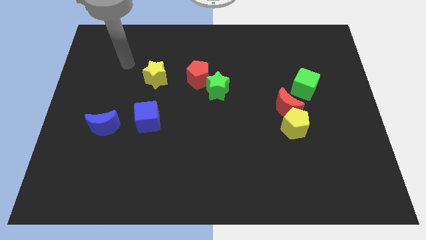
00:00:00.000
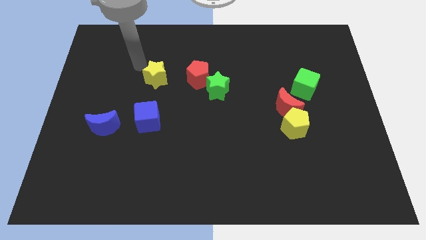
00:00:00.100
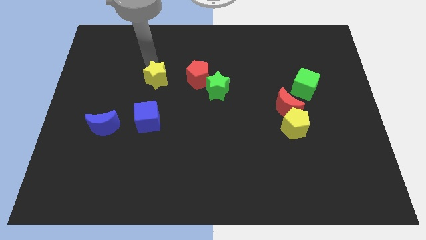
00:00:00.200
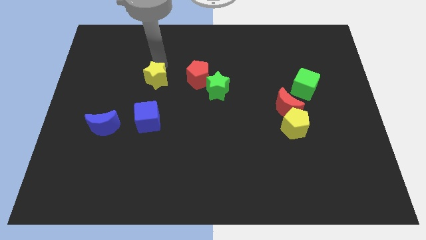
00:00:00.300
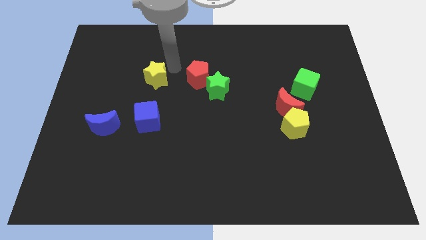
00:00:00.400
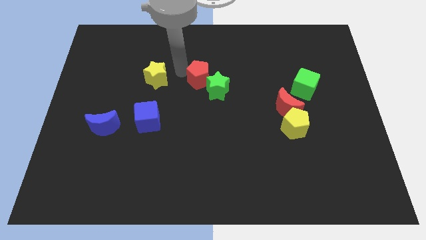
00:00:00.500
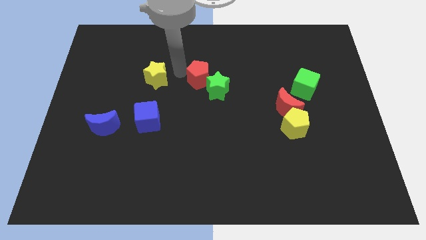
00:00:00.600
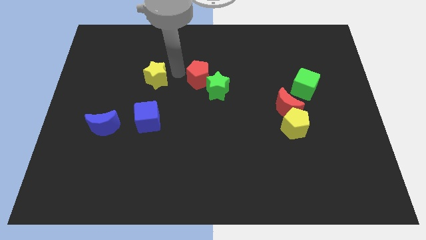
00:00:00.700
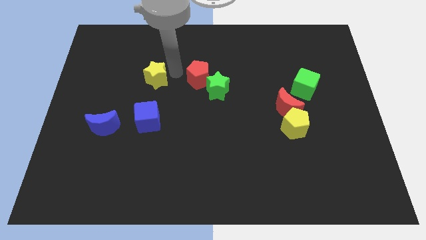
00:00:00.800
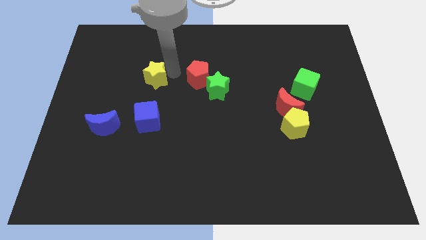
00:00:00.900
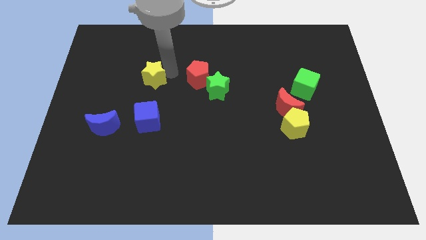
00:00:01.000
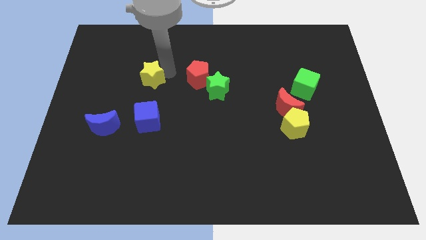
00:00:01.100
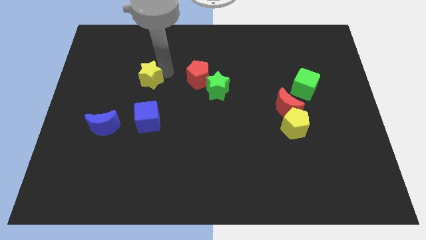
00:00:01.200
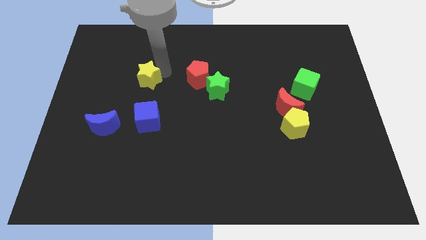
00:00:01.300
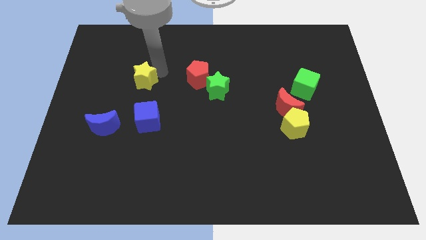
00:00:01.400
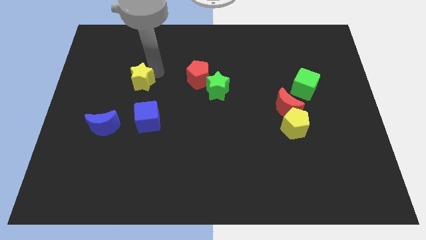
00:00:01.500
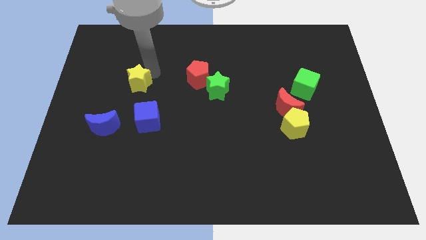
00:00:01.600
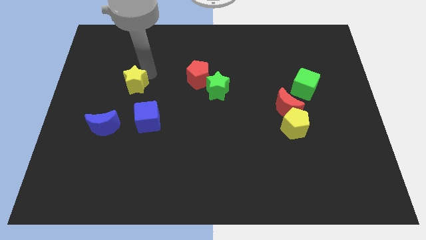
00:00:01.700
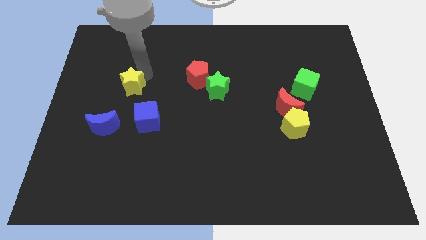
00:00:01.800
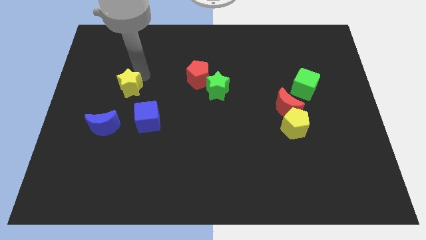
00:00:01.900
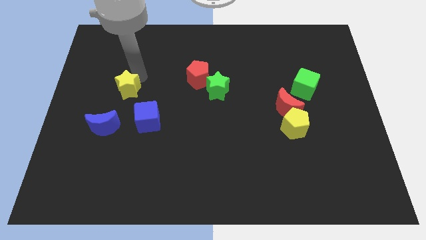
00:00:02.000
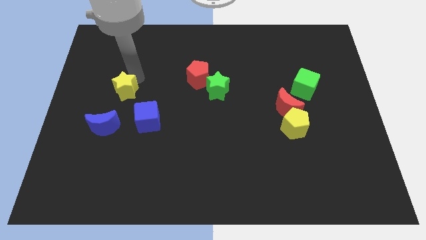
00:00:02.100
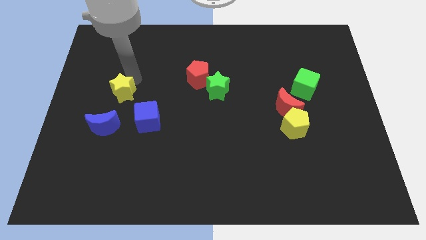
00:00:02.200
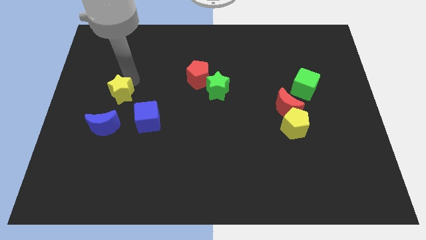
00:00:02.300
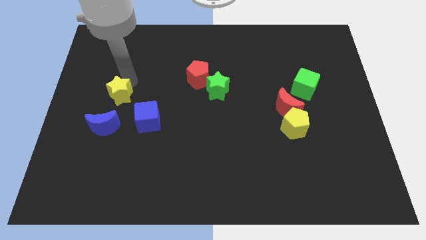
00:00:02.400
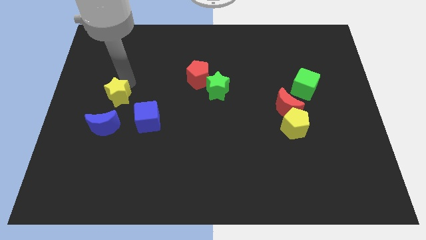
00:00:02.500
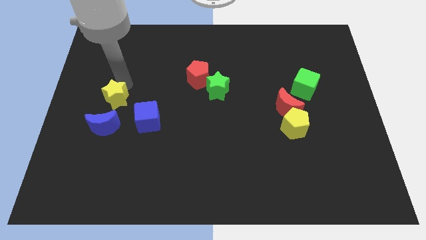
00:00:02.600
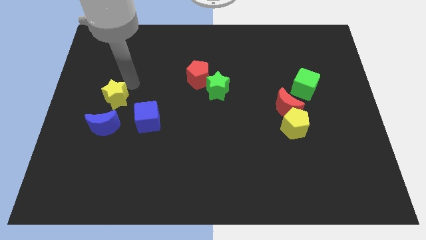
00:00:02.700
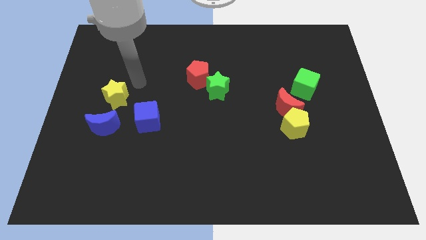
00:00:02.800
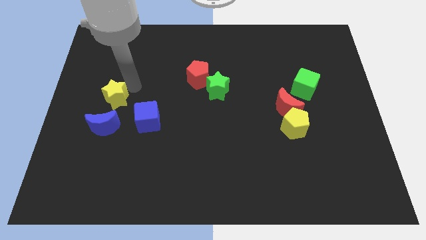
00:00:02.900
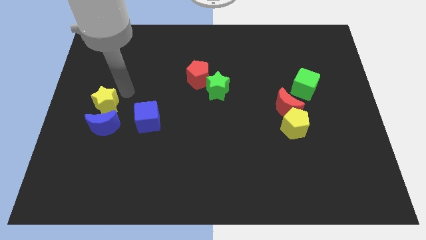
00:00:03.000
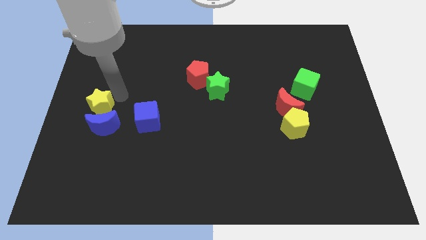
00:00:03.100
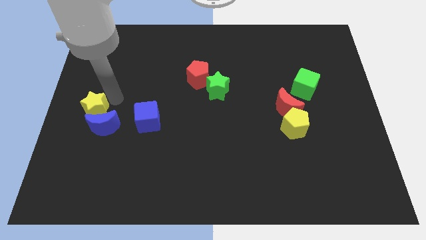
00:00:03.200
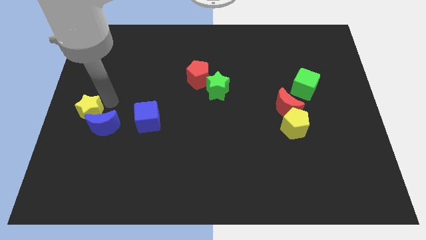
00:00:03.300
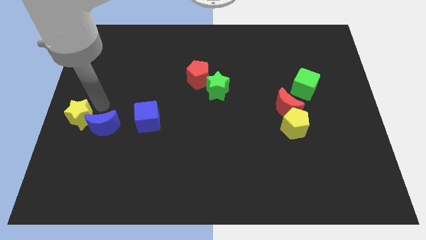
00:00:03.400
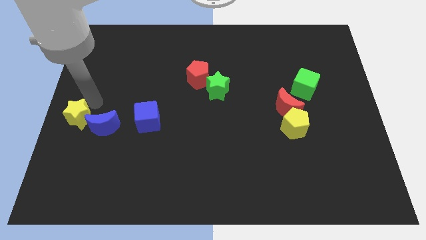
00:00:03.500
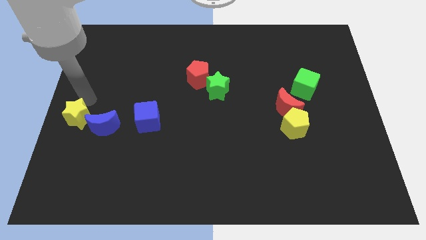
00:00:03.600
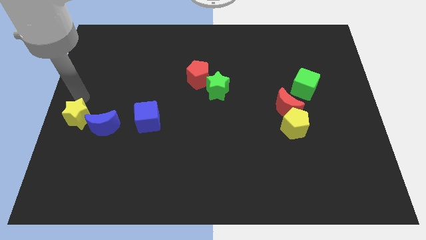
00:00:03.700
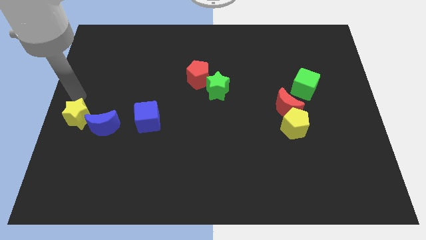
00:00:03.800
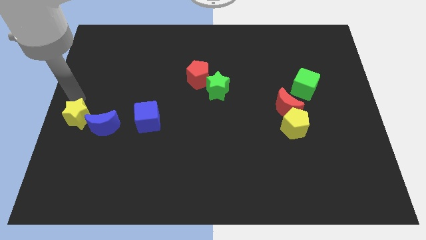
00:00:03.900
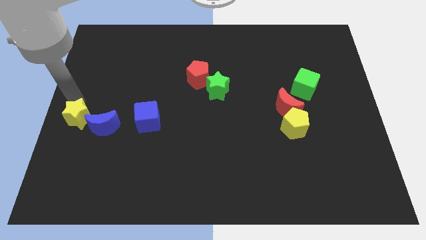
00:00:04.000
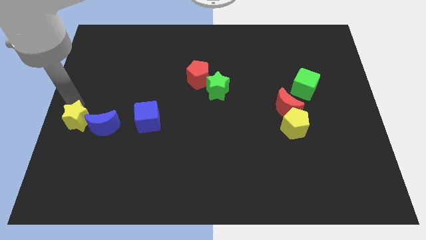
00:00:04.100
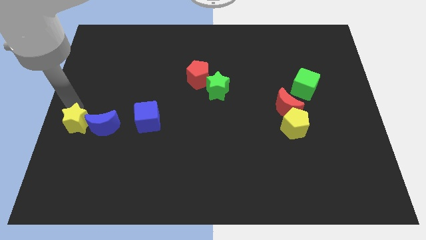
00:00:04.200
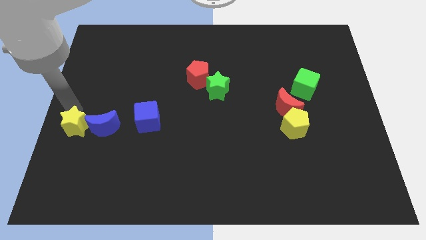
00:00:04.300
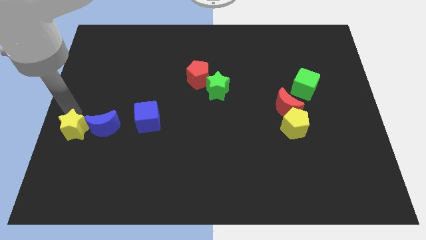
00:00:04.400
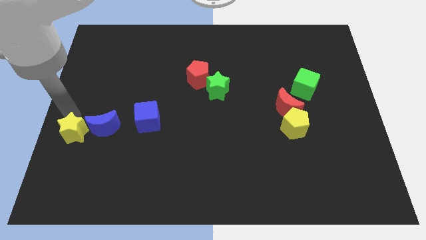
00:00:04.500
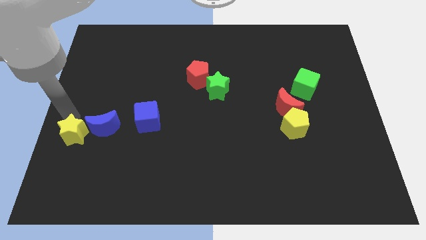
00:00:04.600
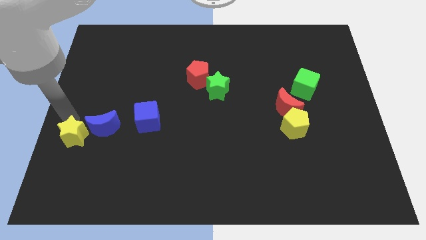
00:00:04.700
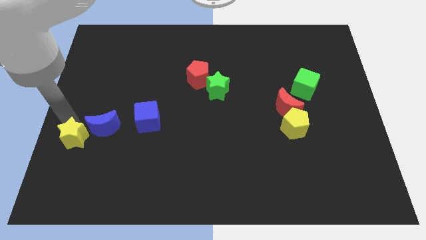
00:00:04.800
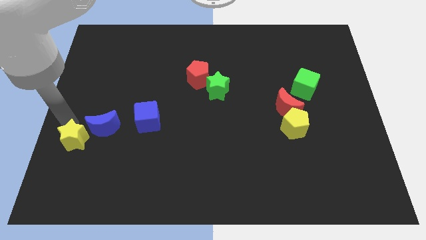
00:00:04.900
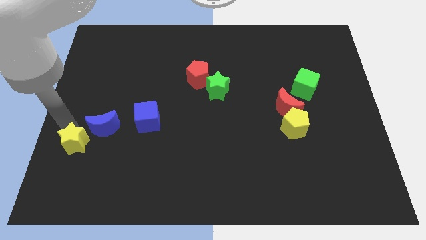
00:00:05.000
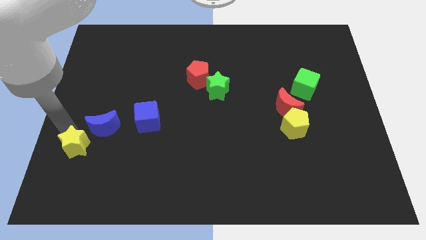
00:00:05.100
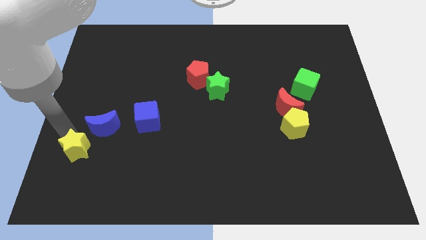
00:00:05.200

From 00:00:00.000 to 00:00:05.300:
put the yellow star to the bottom side of the blue moon

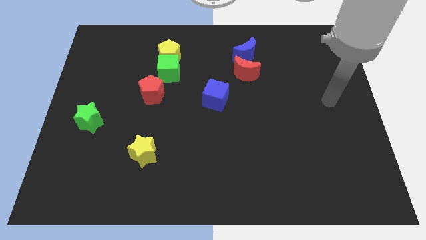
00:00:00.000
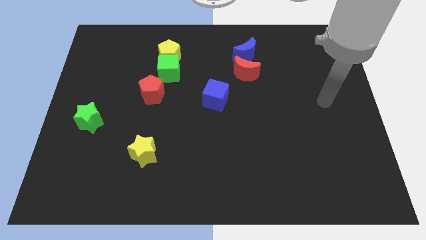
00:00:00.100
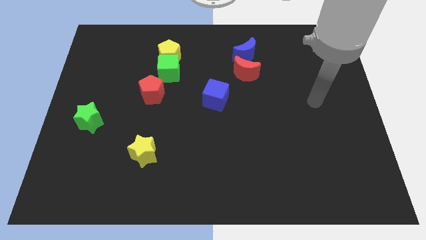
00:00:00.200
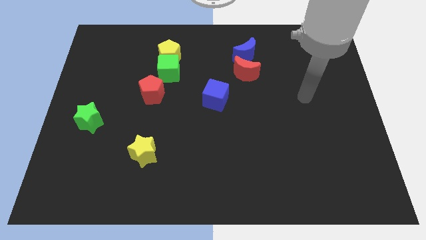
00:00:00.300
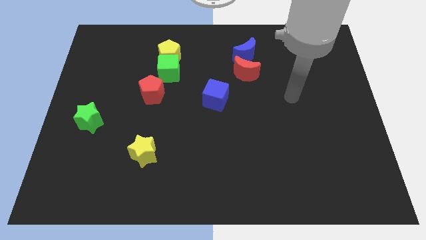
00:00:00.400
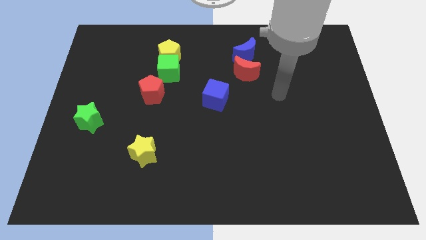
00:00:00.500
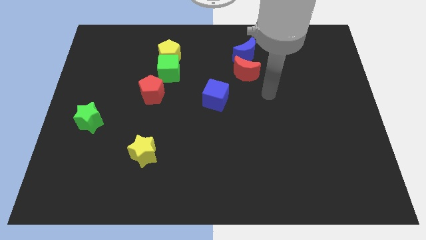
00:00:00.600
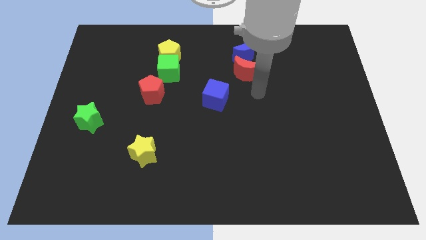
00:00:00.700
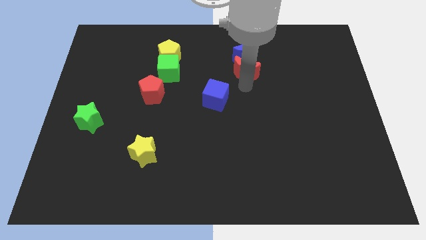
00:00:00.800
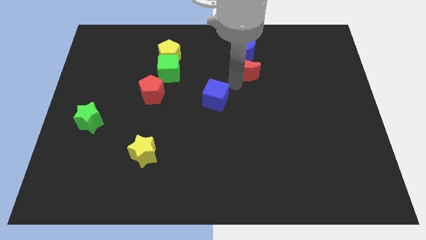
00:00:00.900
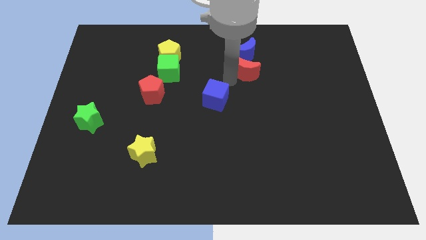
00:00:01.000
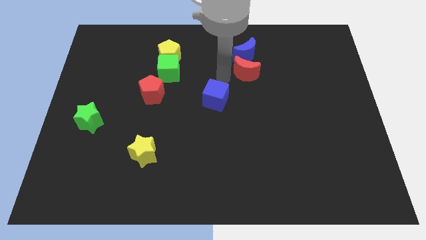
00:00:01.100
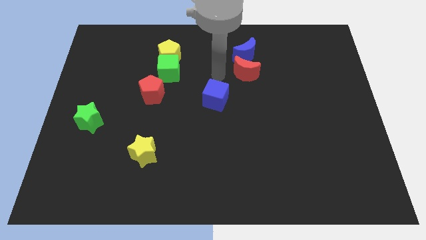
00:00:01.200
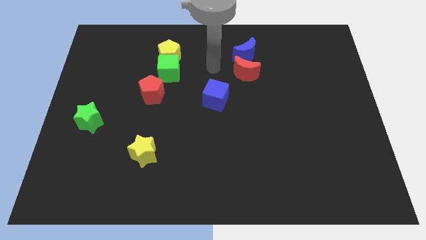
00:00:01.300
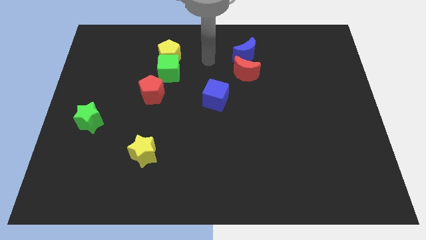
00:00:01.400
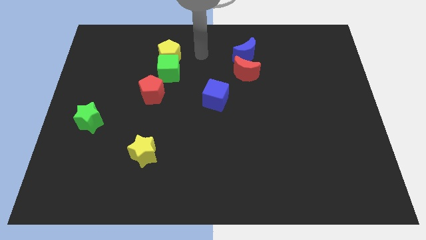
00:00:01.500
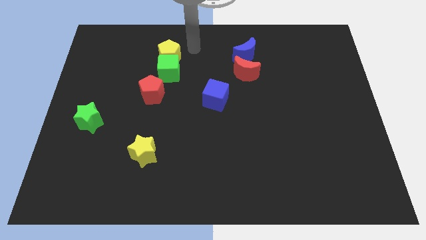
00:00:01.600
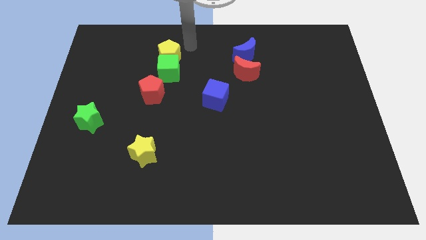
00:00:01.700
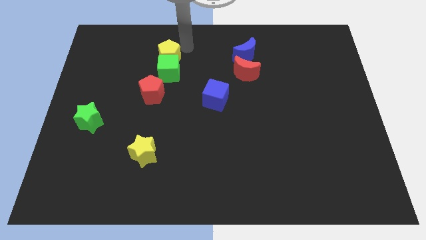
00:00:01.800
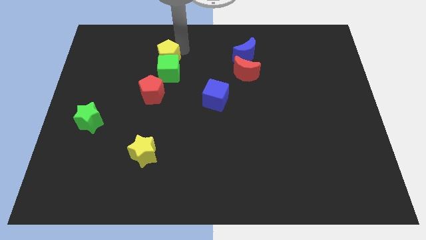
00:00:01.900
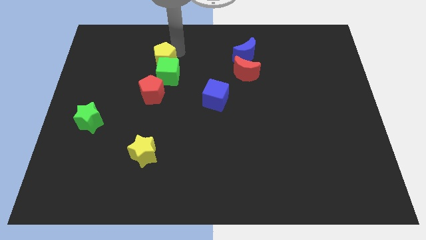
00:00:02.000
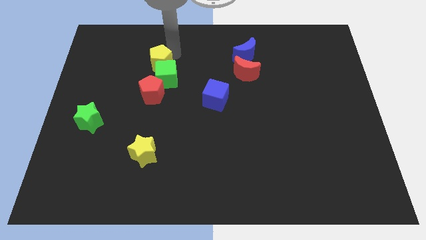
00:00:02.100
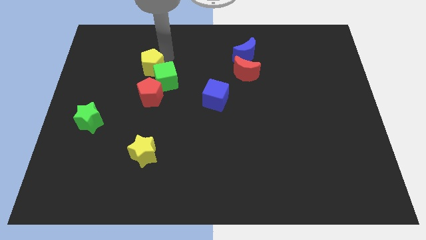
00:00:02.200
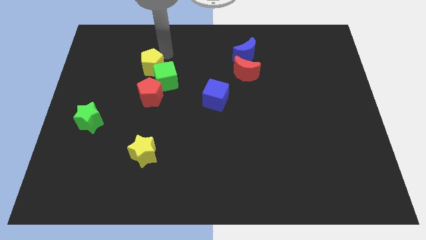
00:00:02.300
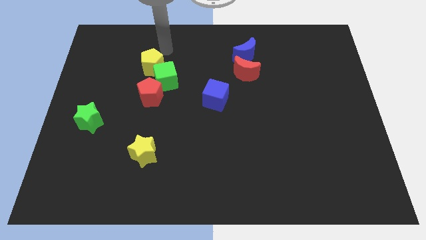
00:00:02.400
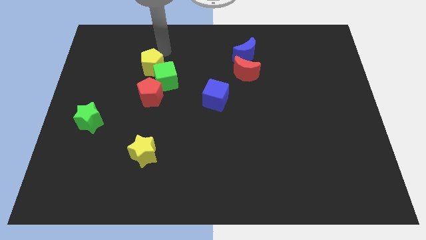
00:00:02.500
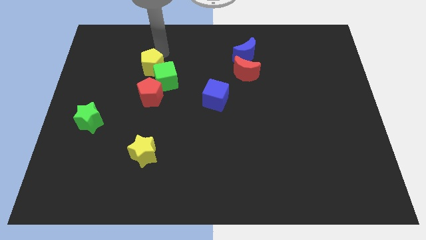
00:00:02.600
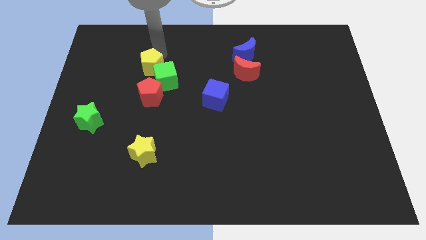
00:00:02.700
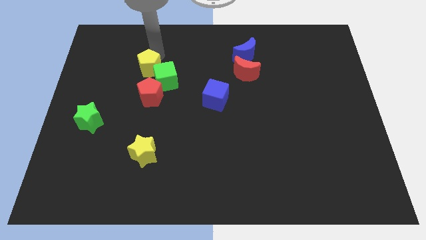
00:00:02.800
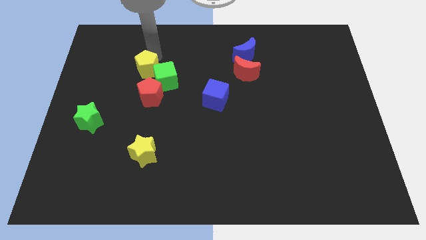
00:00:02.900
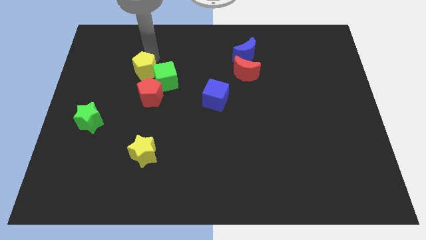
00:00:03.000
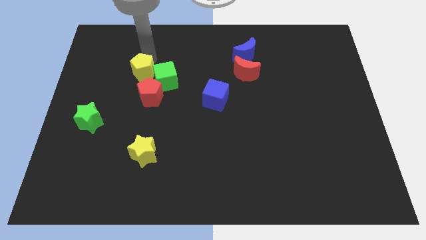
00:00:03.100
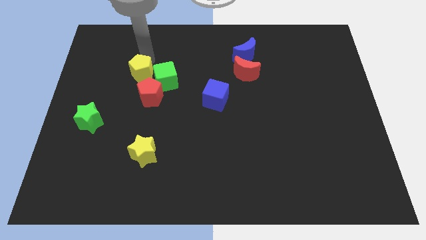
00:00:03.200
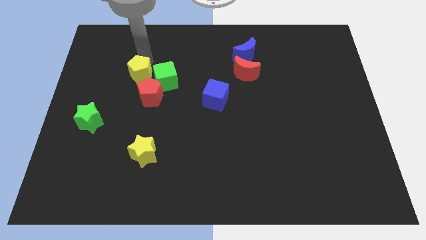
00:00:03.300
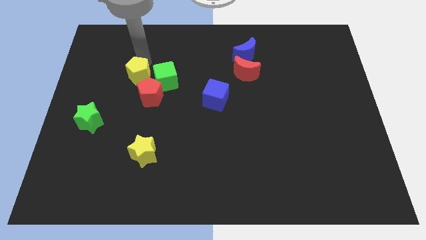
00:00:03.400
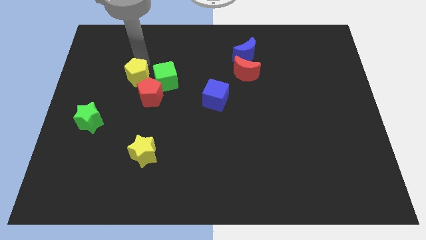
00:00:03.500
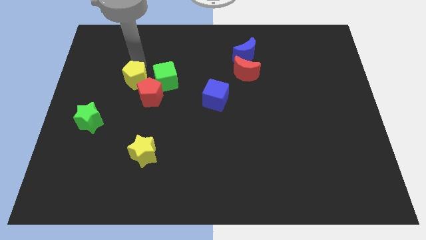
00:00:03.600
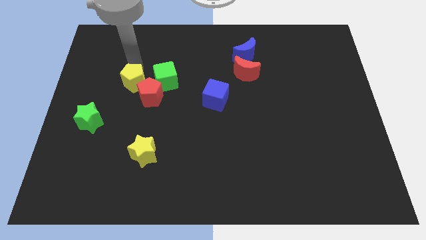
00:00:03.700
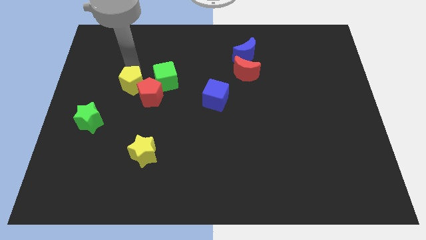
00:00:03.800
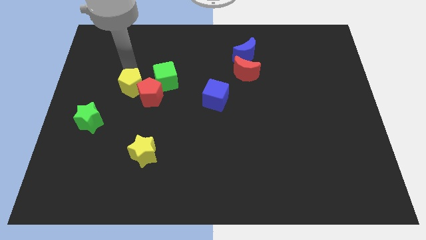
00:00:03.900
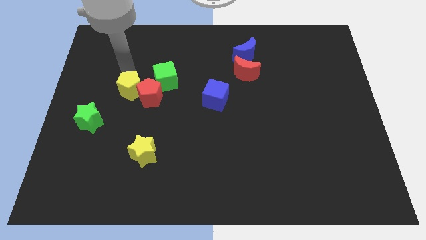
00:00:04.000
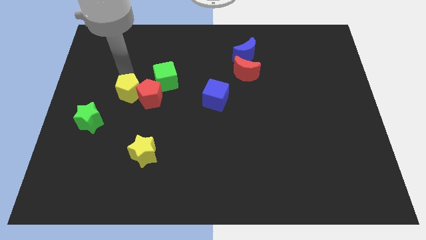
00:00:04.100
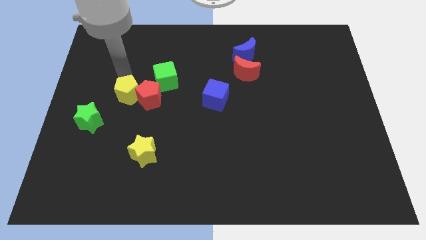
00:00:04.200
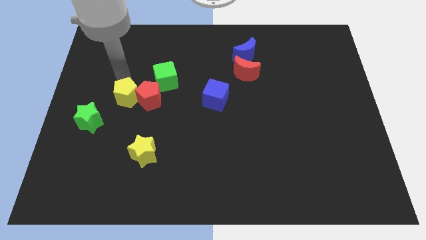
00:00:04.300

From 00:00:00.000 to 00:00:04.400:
slide the yellow pentagon diagonally down and to the left of the red pentagon
